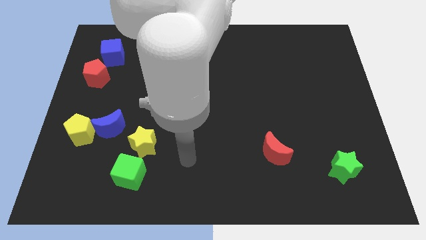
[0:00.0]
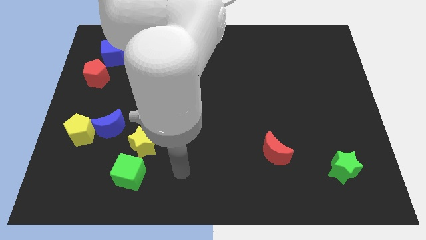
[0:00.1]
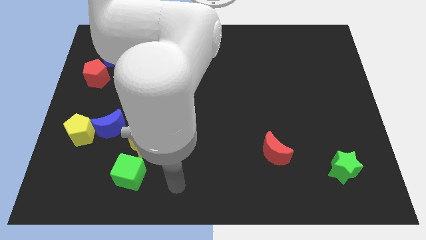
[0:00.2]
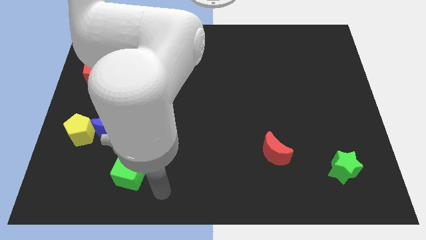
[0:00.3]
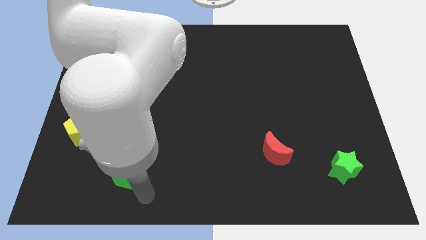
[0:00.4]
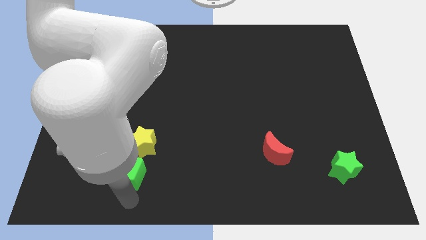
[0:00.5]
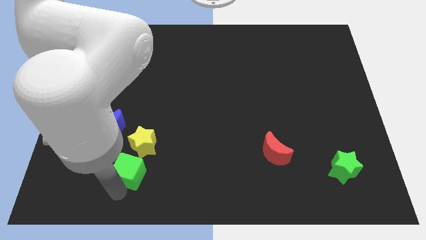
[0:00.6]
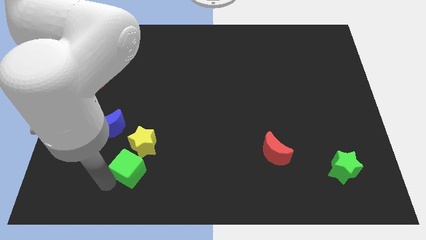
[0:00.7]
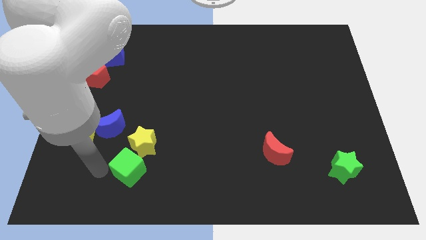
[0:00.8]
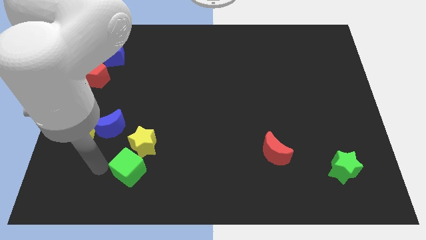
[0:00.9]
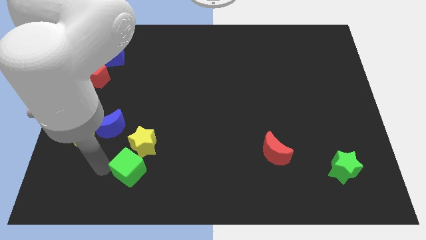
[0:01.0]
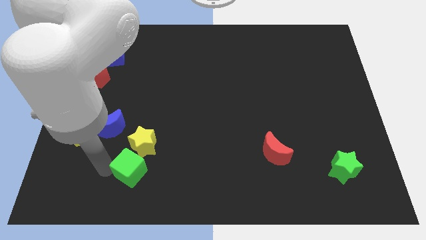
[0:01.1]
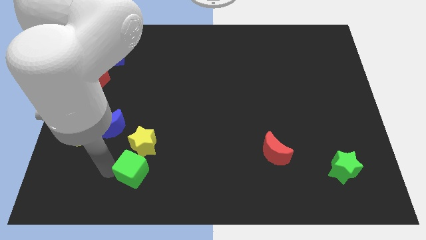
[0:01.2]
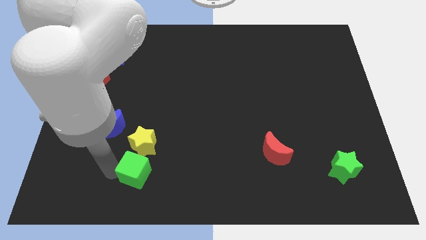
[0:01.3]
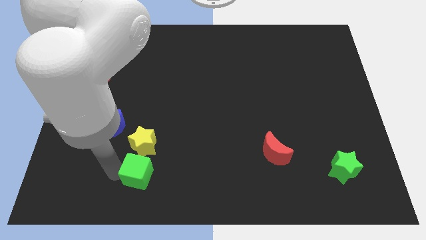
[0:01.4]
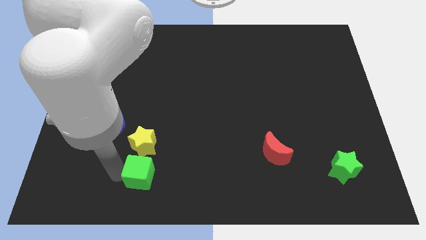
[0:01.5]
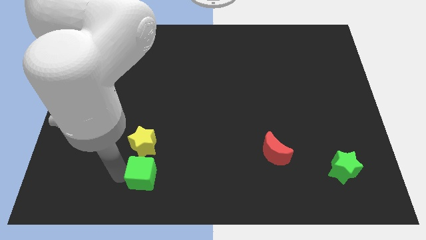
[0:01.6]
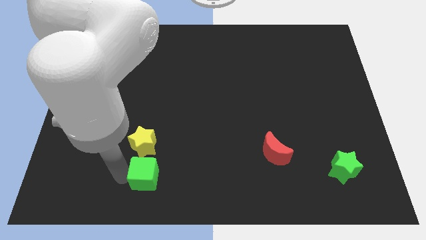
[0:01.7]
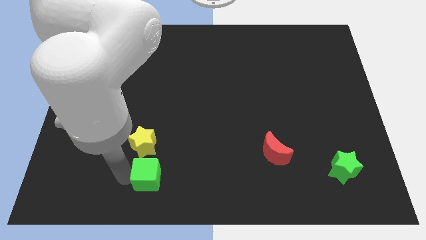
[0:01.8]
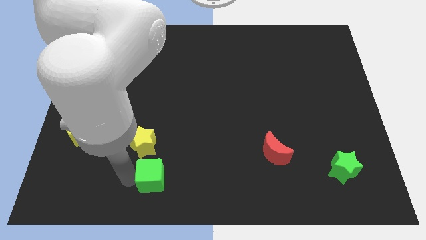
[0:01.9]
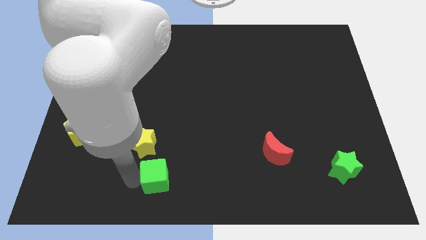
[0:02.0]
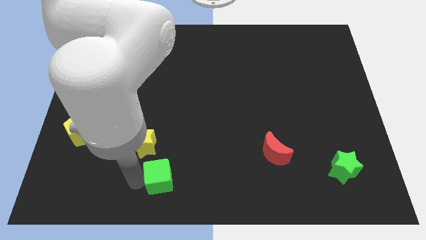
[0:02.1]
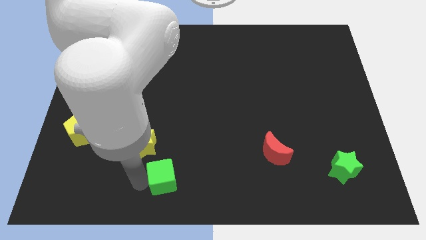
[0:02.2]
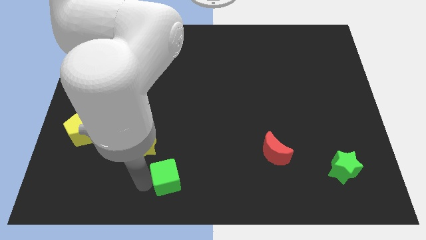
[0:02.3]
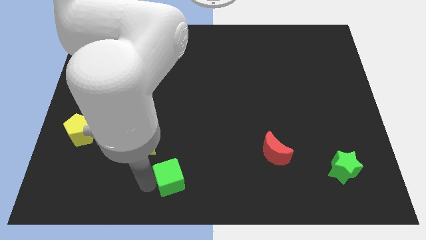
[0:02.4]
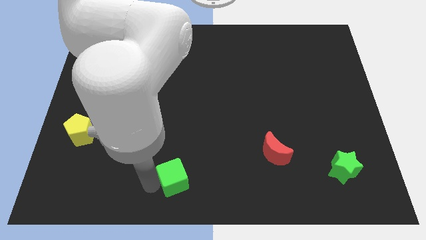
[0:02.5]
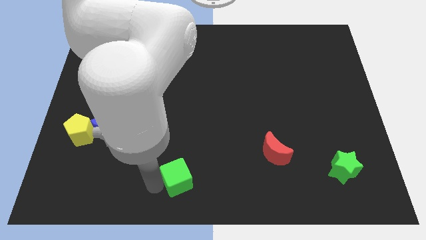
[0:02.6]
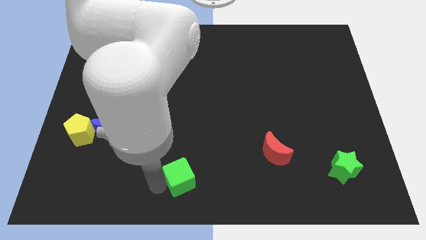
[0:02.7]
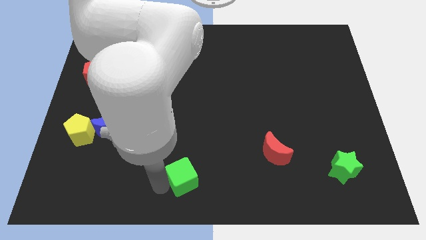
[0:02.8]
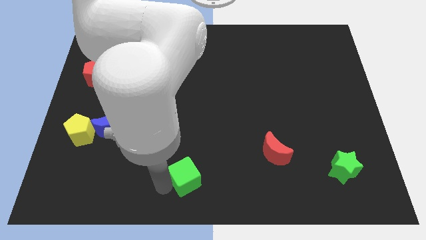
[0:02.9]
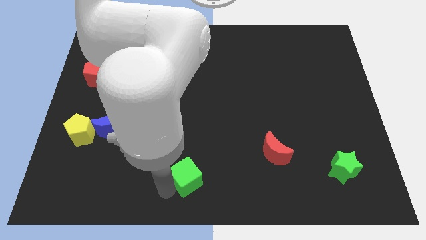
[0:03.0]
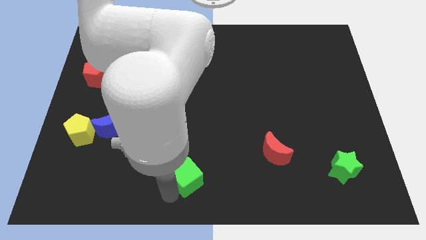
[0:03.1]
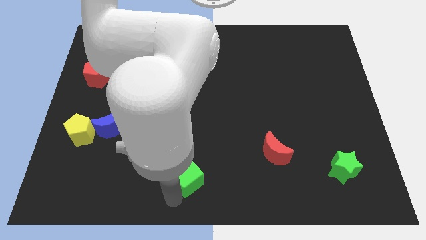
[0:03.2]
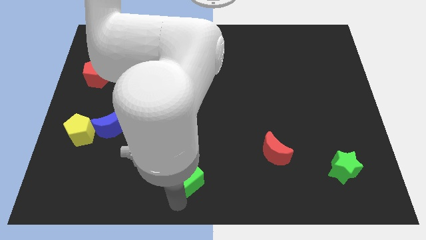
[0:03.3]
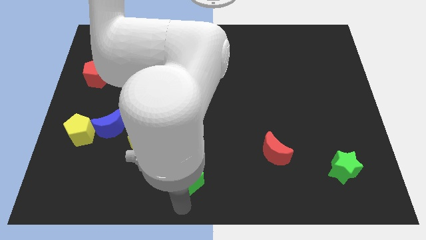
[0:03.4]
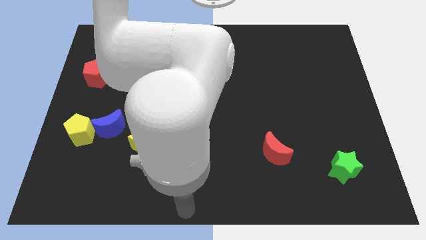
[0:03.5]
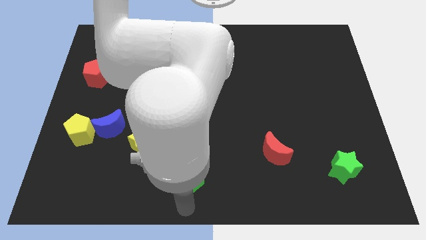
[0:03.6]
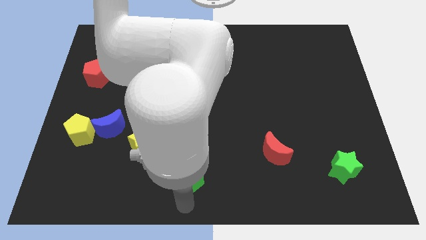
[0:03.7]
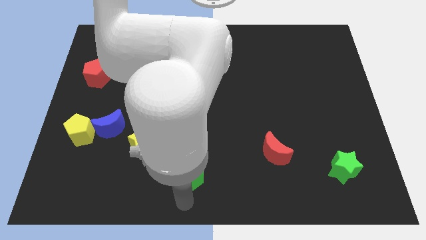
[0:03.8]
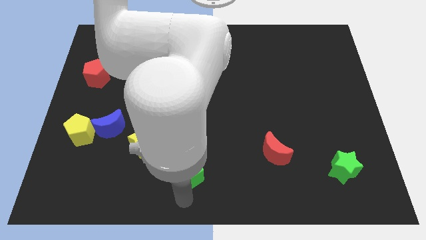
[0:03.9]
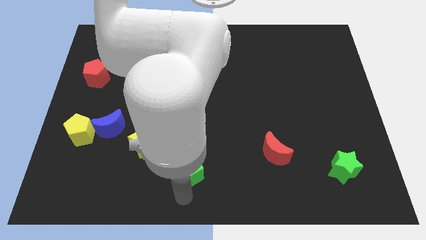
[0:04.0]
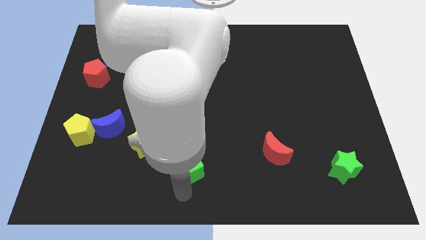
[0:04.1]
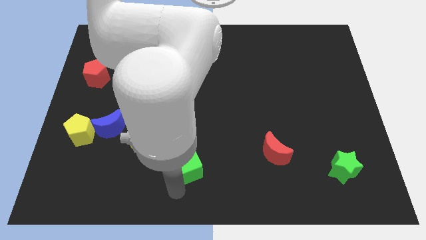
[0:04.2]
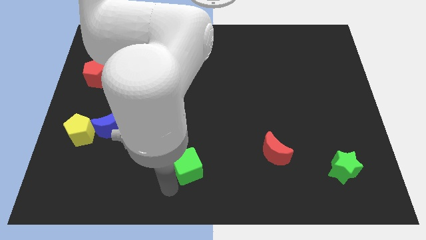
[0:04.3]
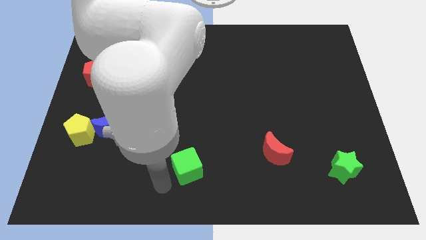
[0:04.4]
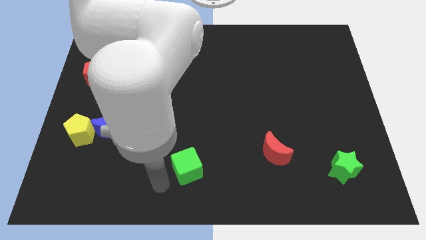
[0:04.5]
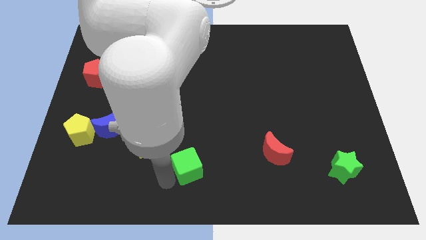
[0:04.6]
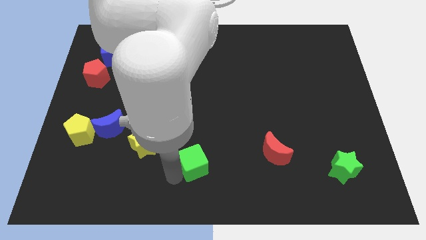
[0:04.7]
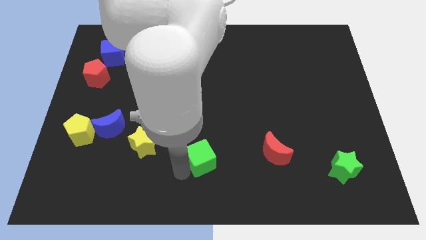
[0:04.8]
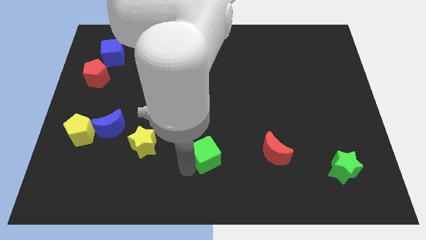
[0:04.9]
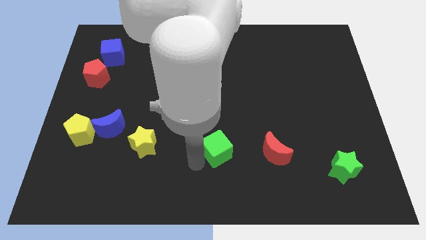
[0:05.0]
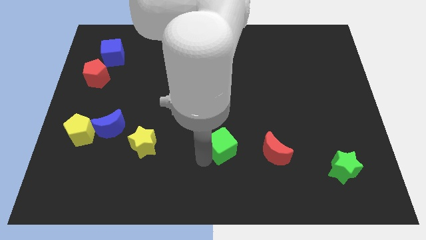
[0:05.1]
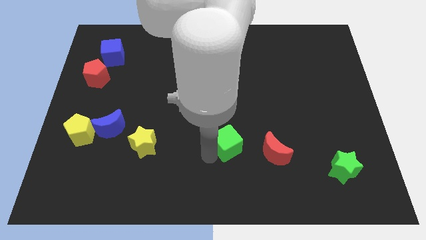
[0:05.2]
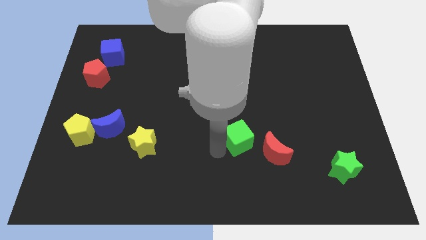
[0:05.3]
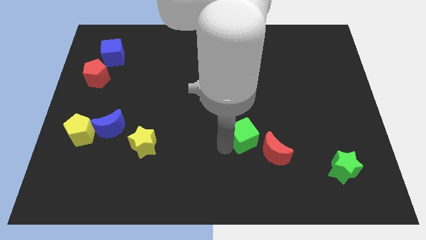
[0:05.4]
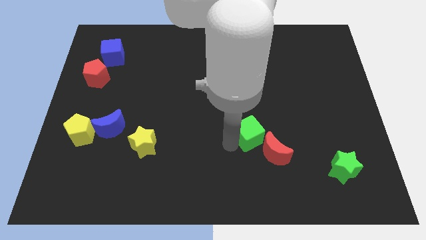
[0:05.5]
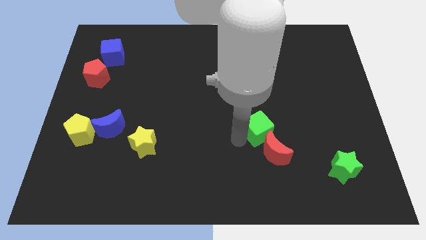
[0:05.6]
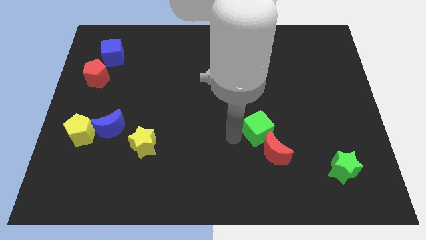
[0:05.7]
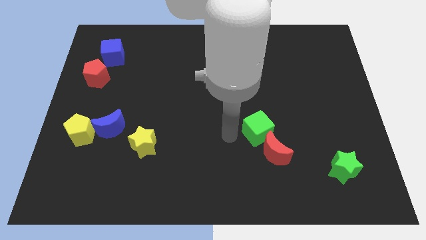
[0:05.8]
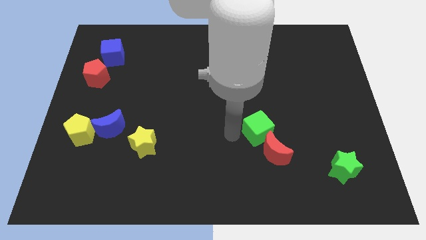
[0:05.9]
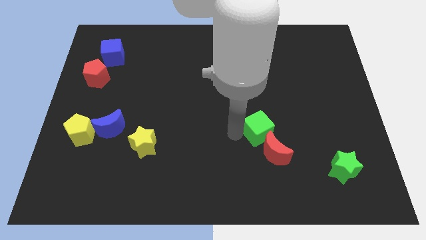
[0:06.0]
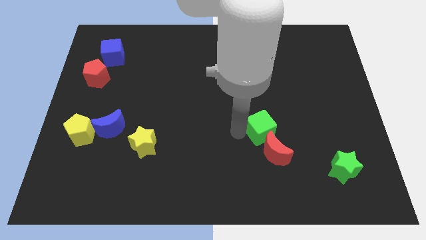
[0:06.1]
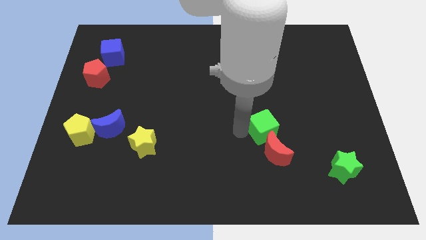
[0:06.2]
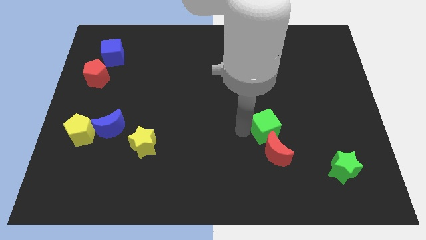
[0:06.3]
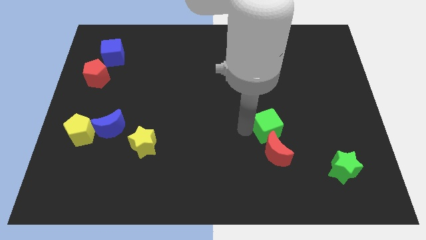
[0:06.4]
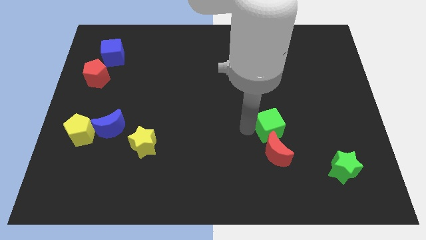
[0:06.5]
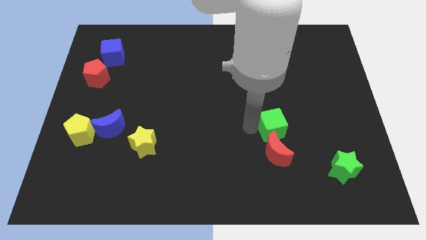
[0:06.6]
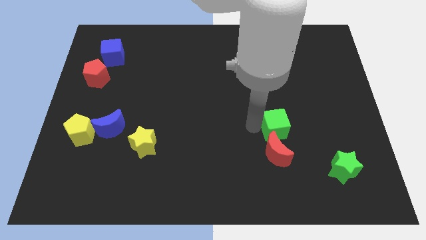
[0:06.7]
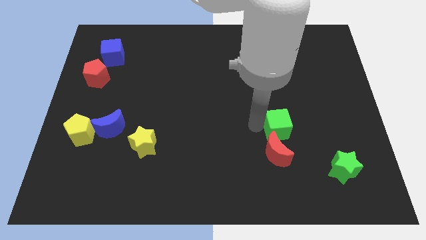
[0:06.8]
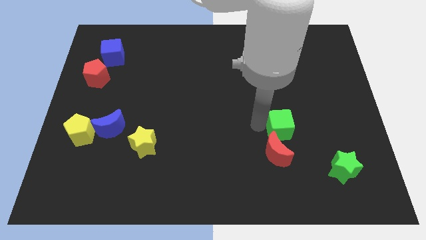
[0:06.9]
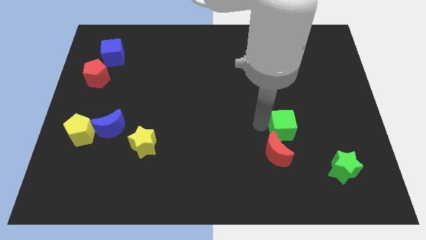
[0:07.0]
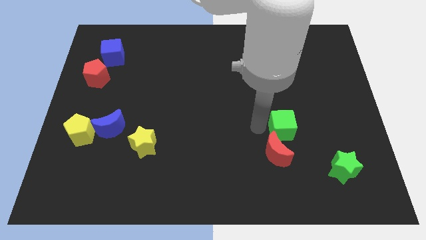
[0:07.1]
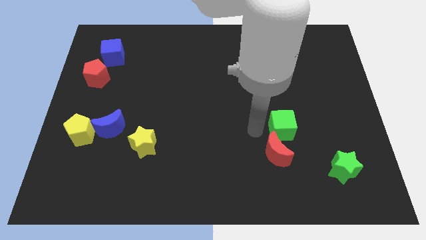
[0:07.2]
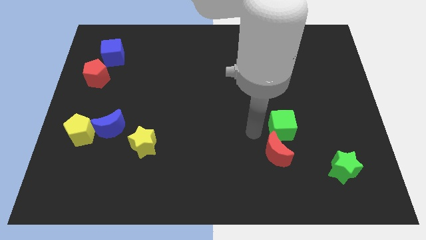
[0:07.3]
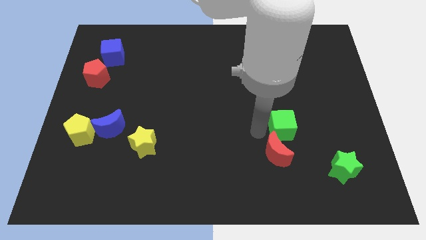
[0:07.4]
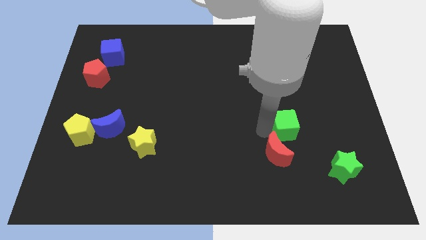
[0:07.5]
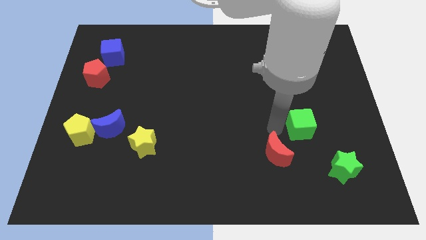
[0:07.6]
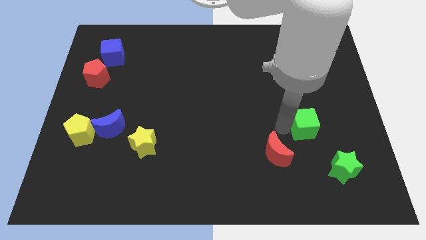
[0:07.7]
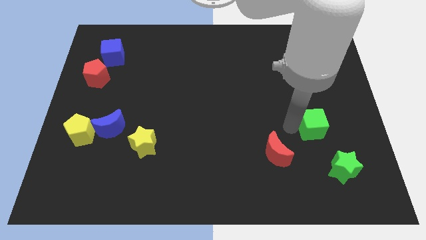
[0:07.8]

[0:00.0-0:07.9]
put the green cube above the green star
